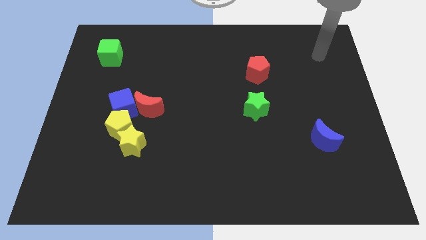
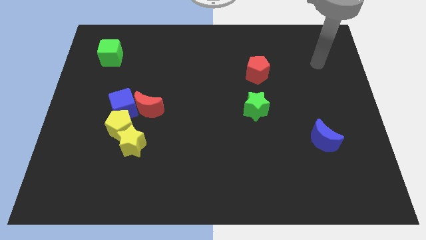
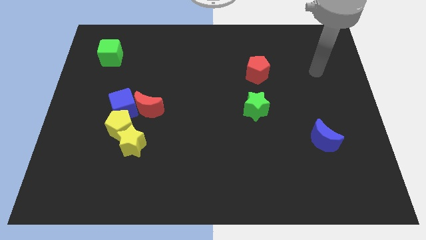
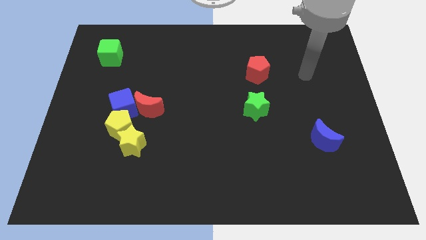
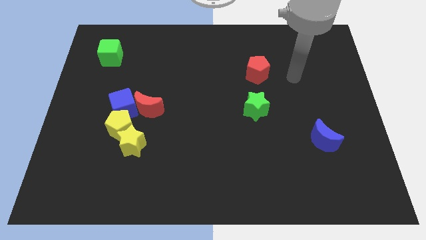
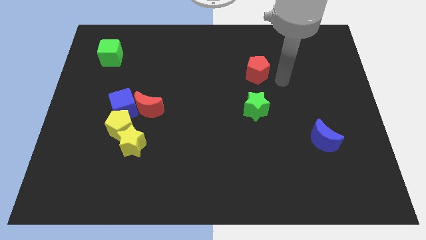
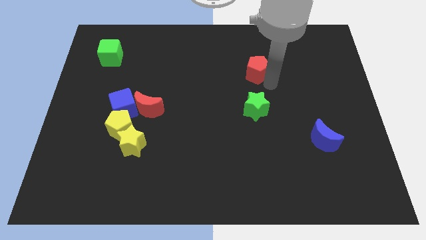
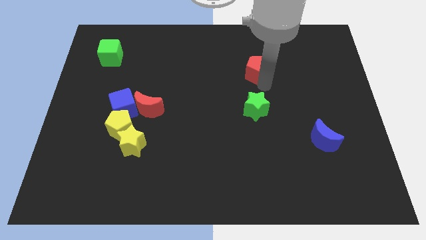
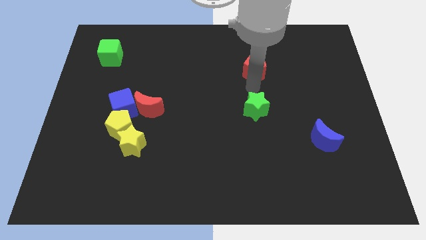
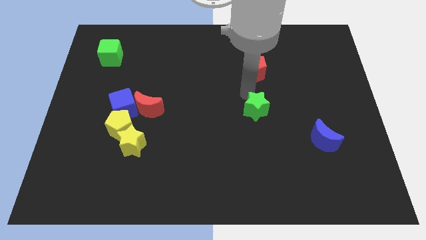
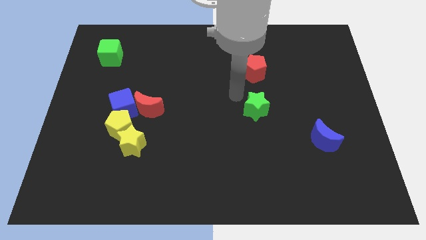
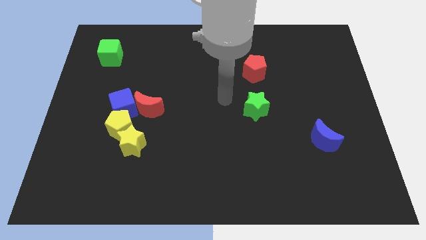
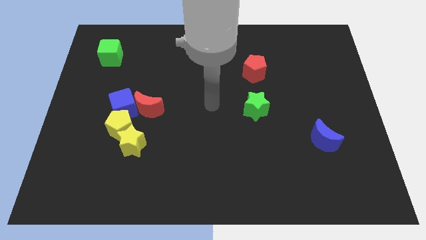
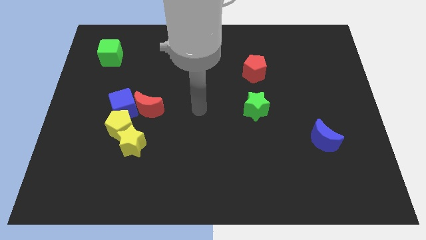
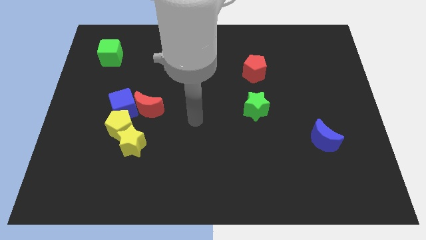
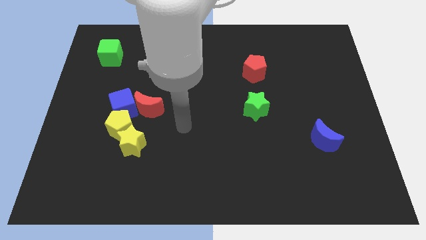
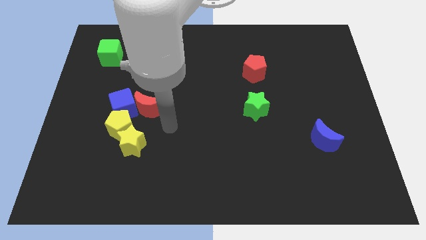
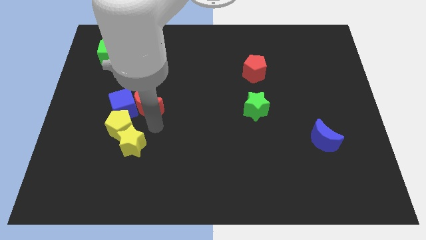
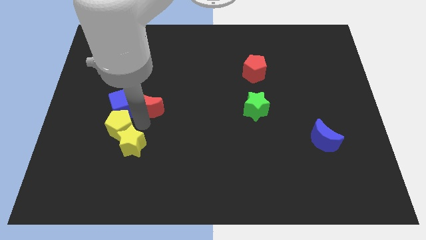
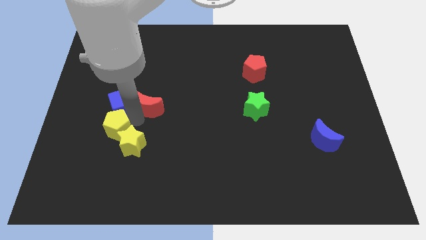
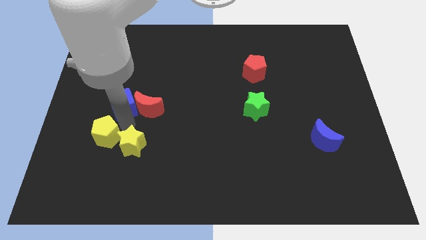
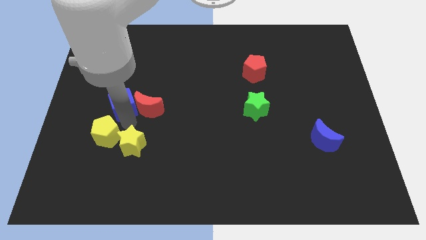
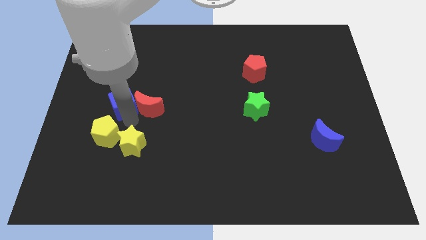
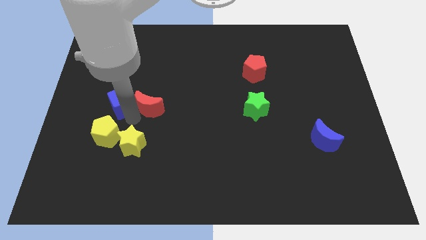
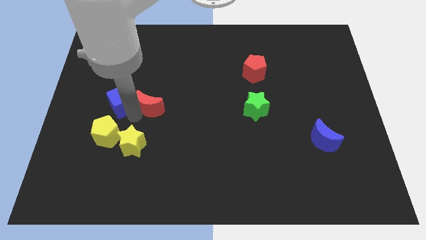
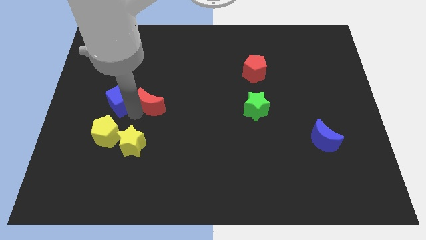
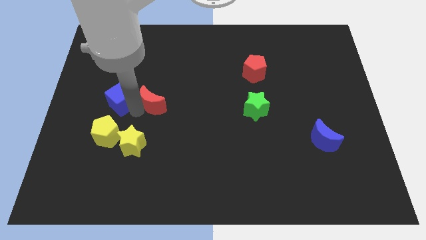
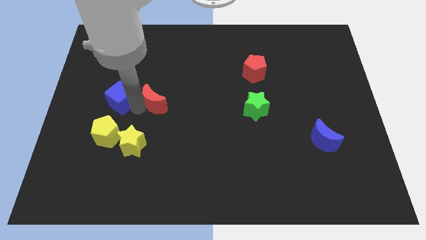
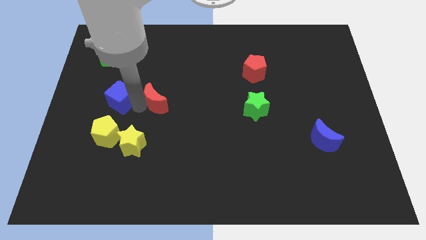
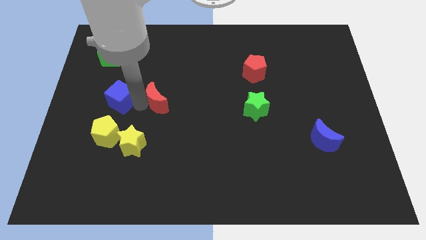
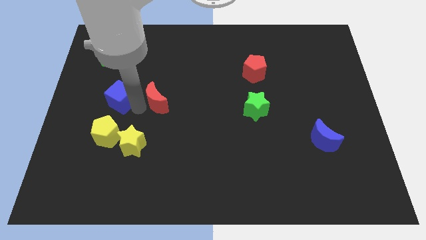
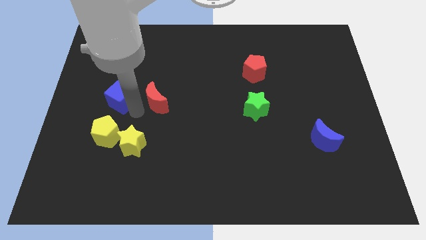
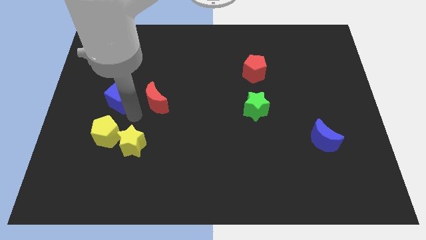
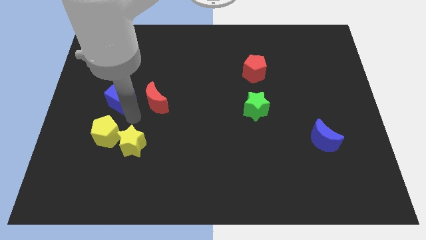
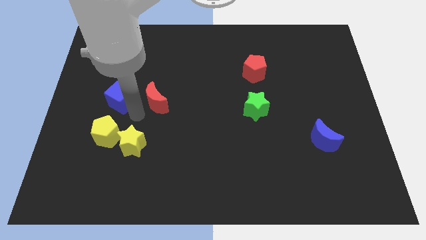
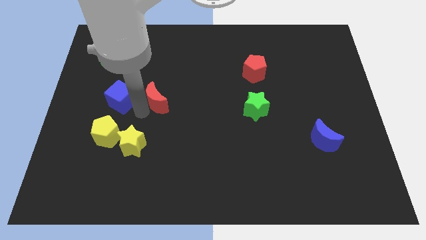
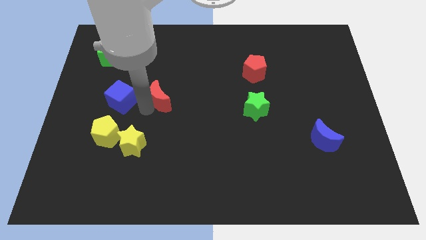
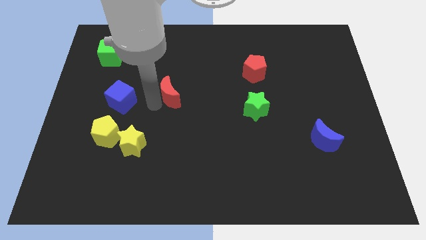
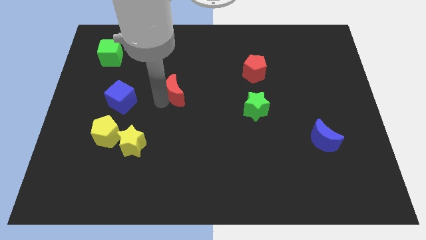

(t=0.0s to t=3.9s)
slightly move the red moon upwards and right

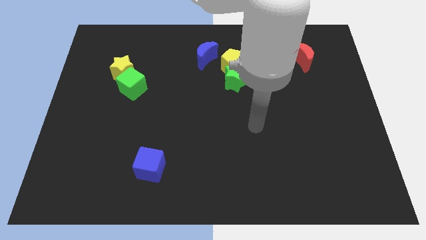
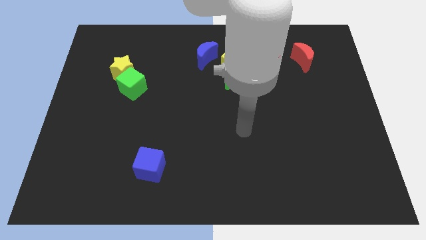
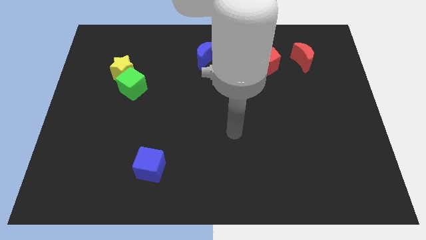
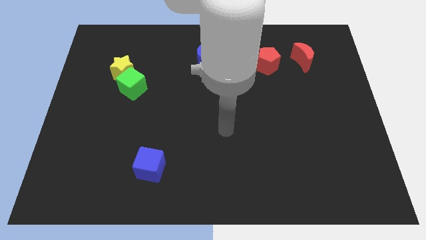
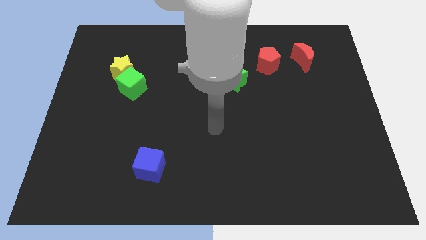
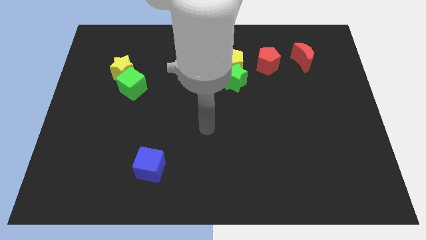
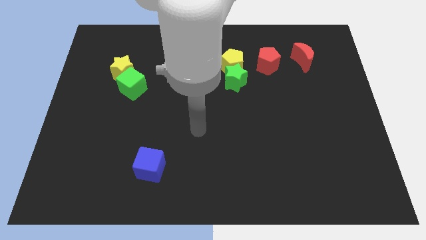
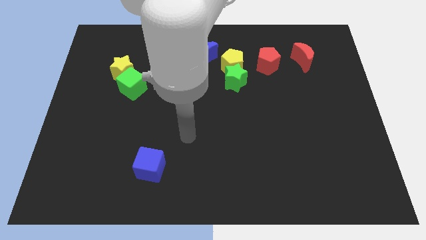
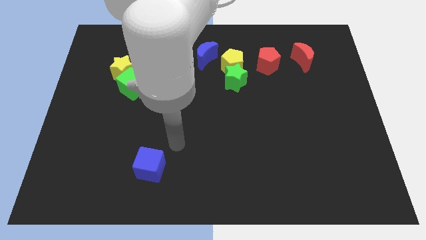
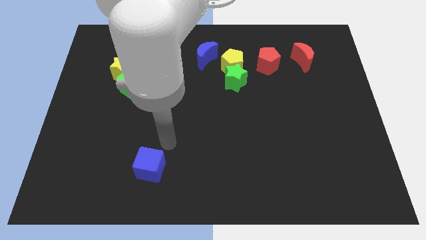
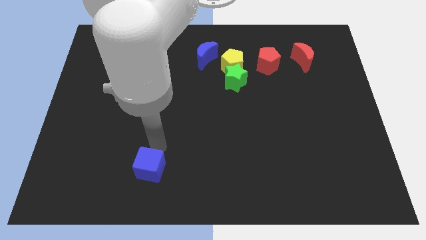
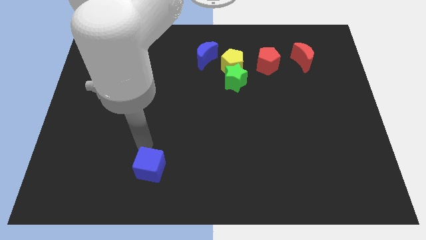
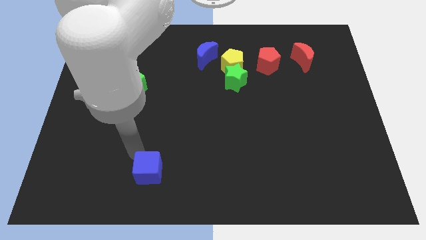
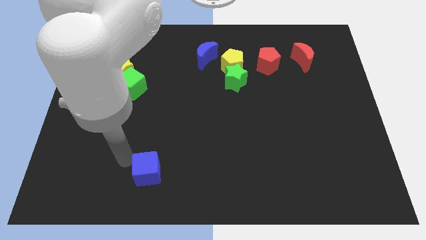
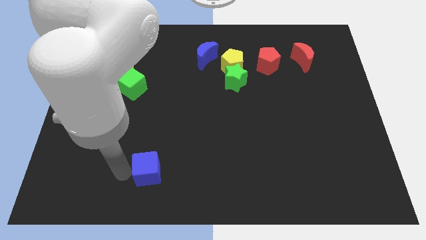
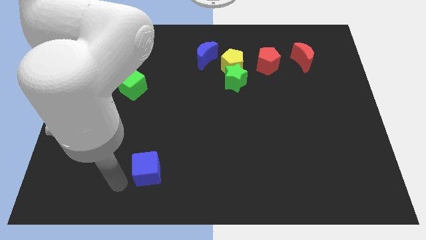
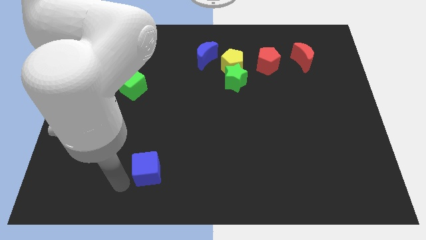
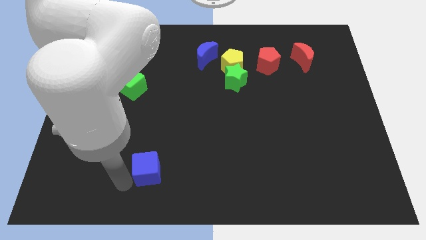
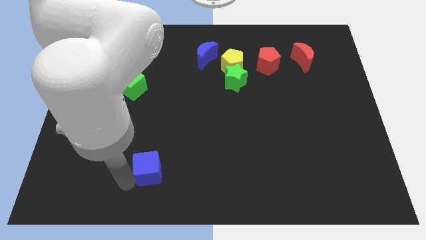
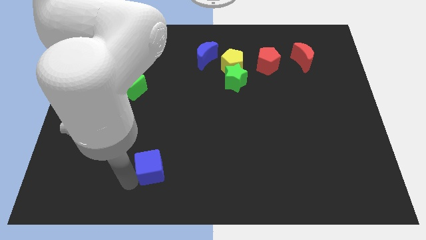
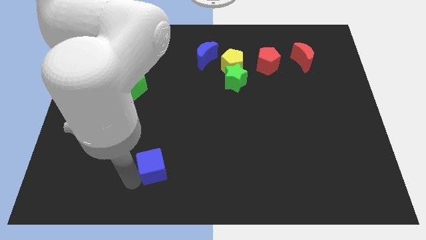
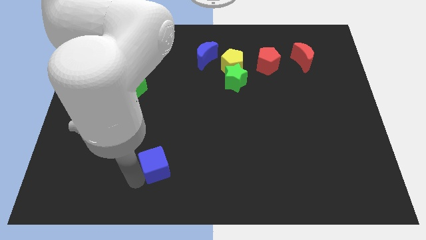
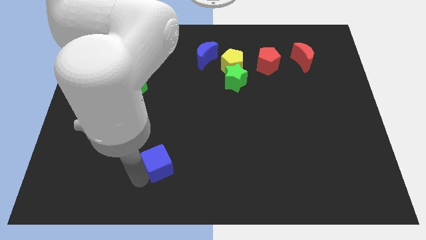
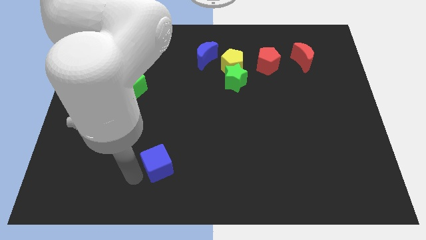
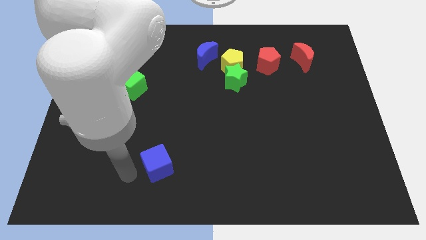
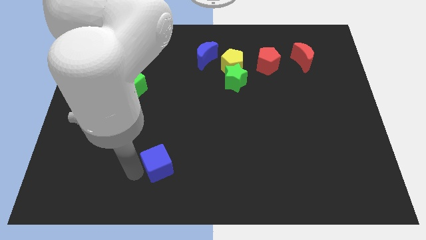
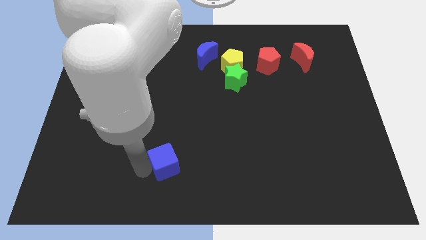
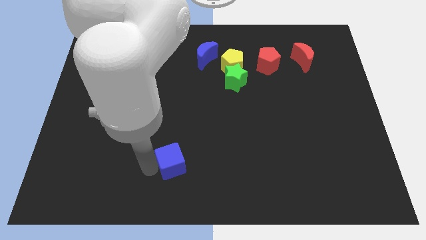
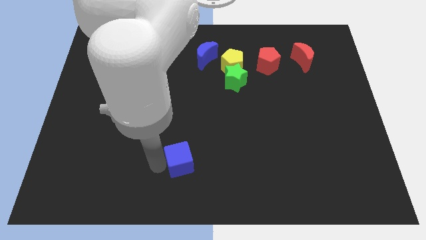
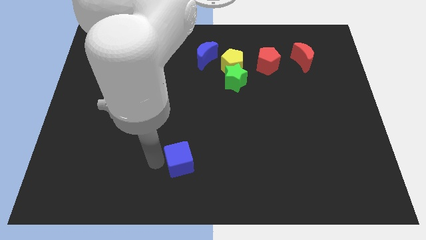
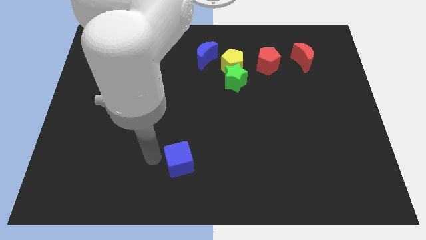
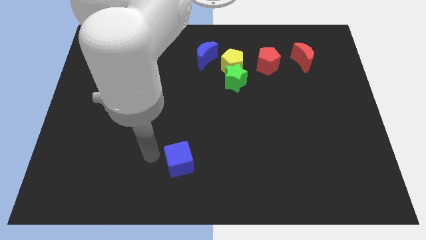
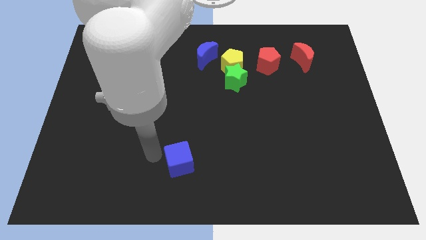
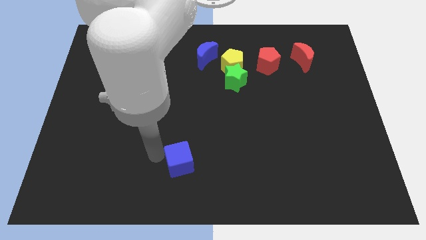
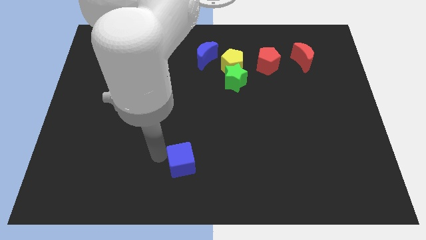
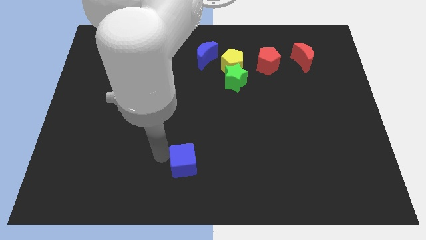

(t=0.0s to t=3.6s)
slightly push the blue cube right

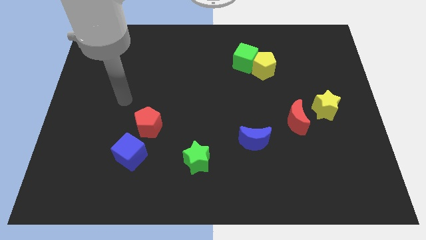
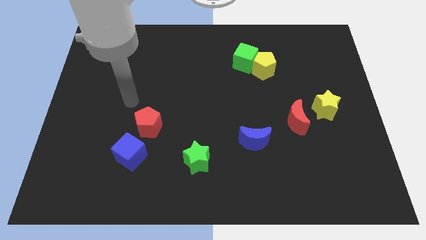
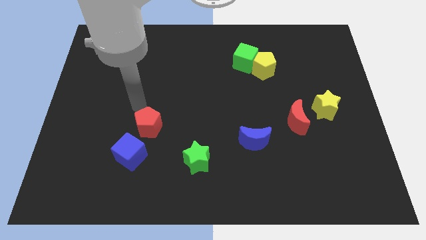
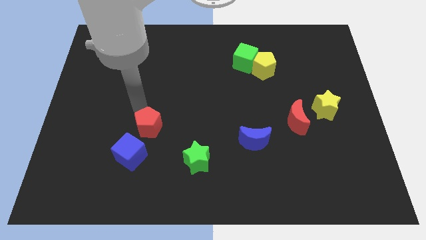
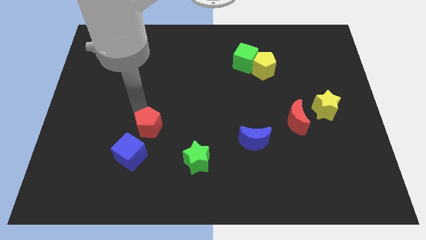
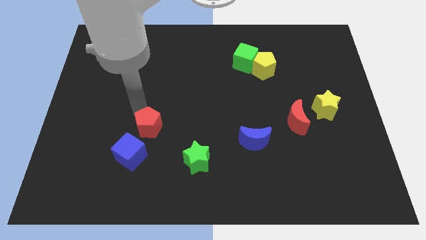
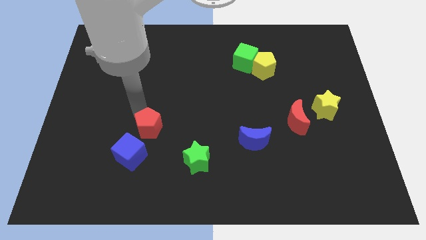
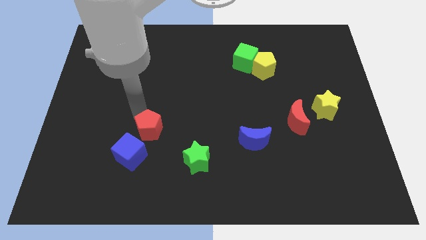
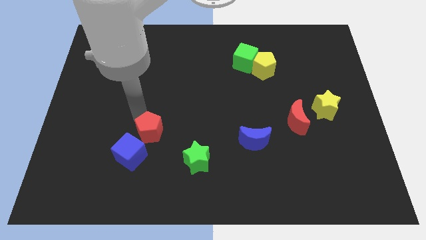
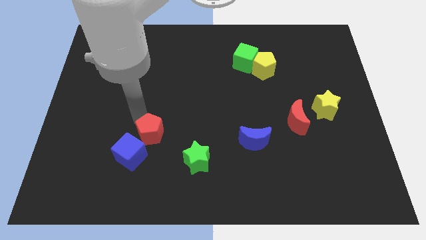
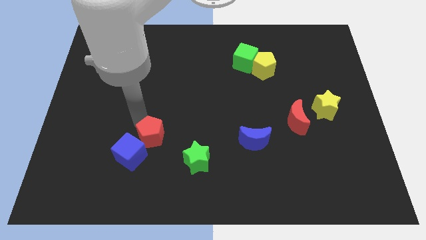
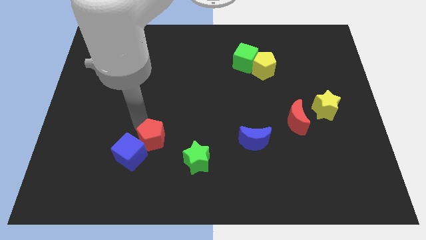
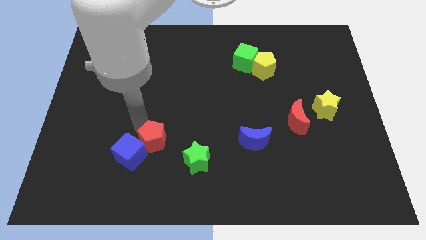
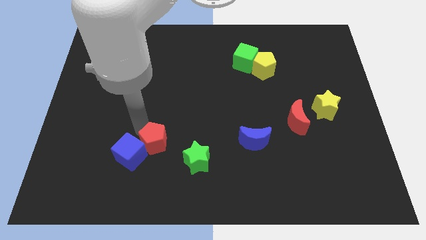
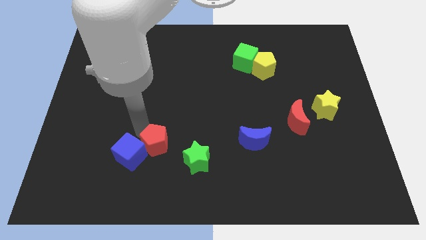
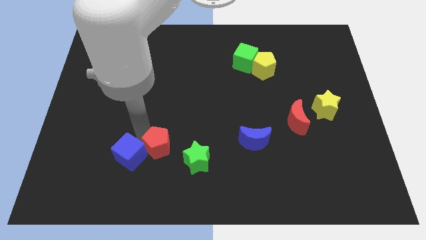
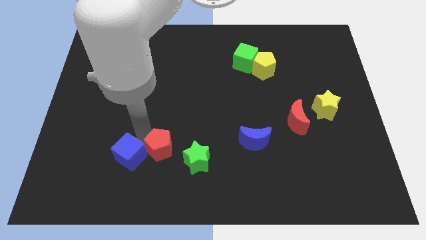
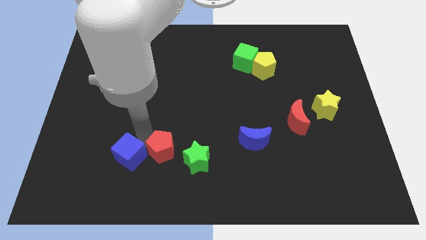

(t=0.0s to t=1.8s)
slightly move the red pentagon diagonally downwards and right
